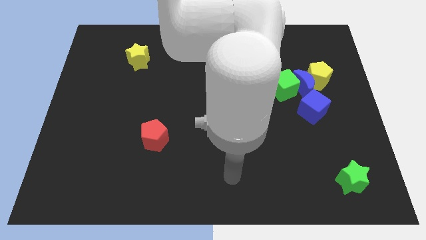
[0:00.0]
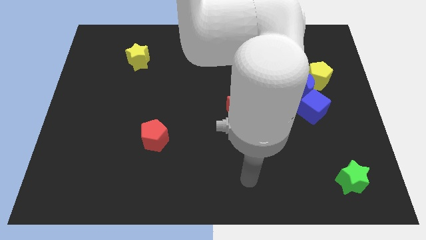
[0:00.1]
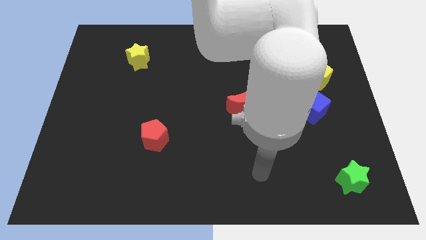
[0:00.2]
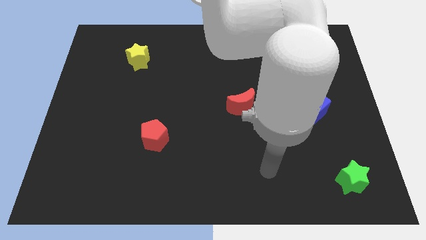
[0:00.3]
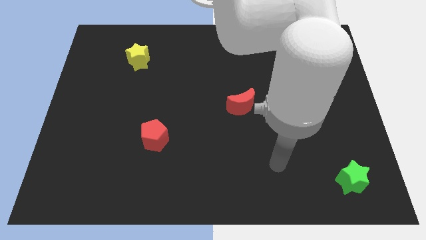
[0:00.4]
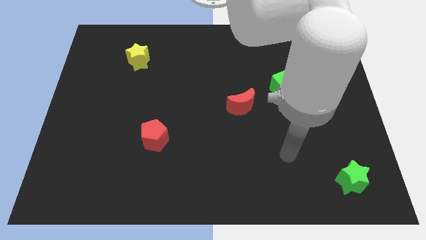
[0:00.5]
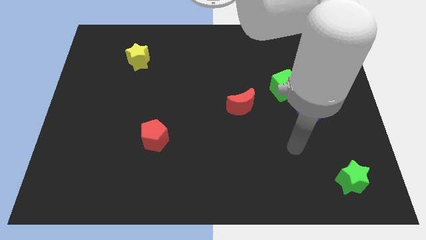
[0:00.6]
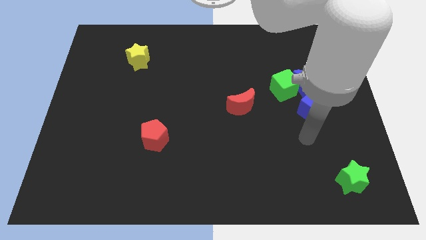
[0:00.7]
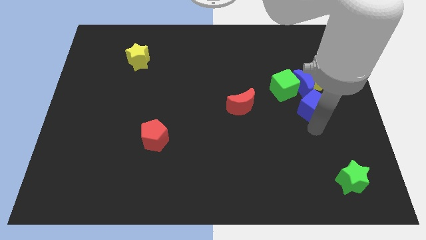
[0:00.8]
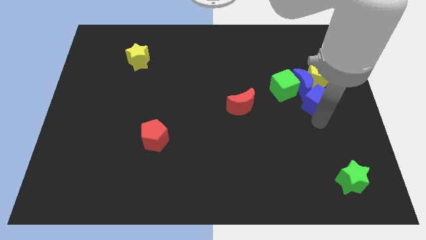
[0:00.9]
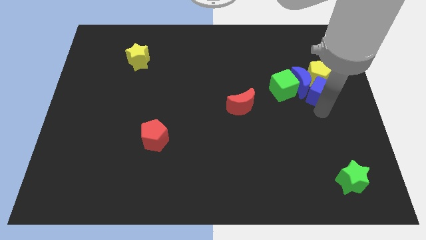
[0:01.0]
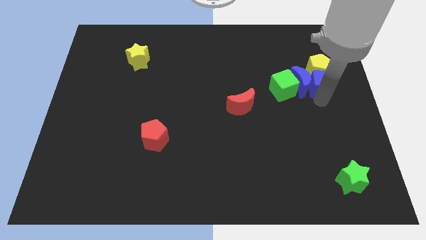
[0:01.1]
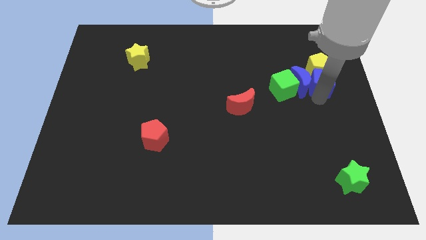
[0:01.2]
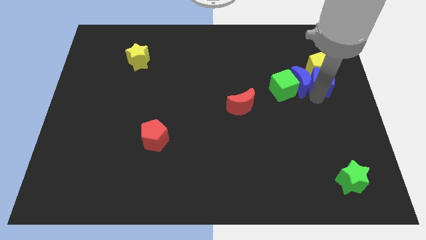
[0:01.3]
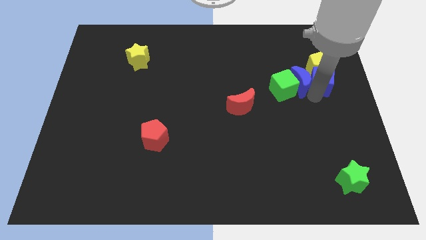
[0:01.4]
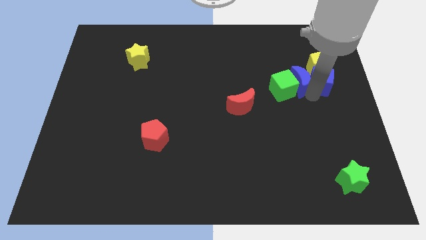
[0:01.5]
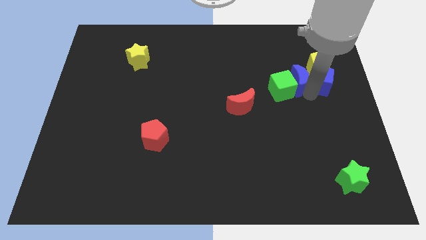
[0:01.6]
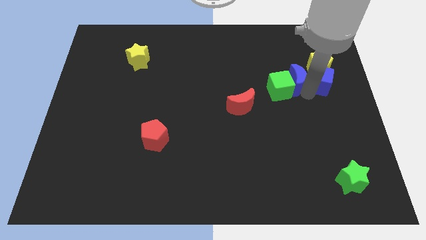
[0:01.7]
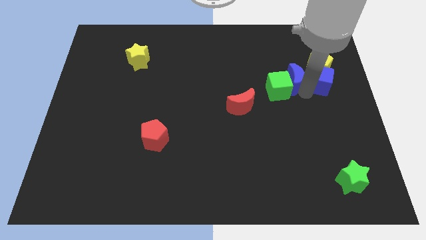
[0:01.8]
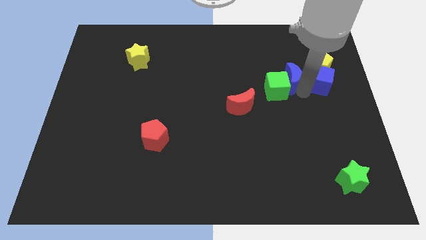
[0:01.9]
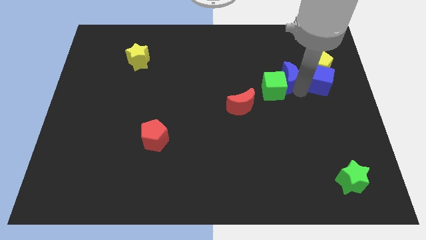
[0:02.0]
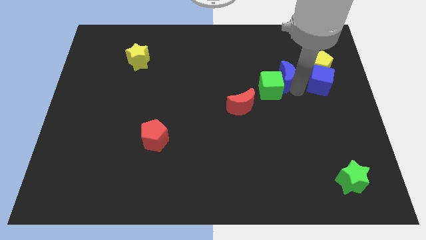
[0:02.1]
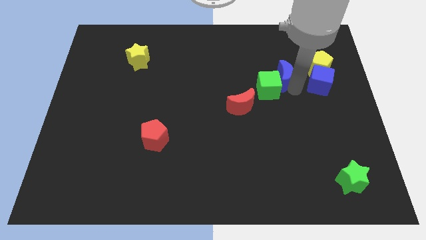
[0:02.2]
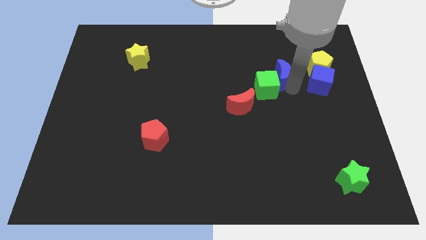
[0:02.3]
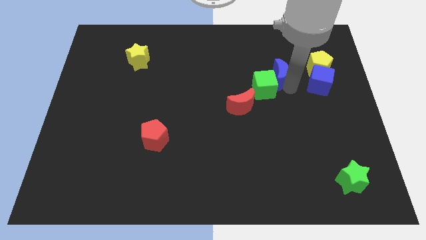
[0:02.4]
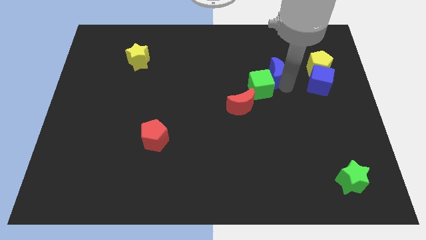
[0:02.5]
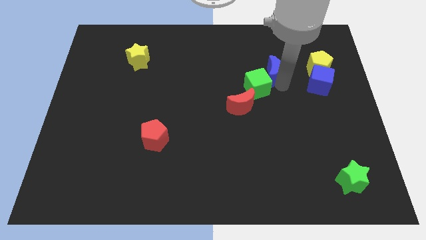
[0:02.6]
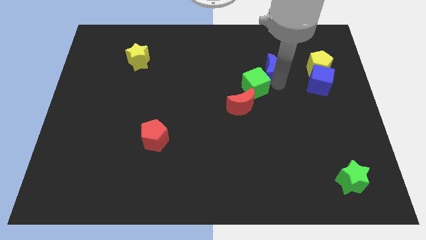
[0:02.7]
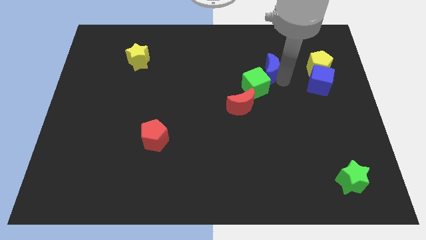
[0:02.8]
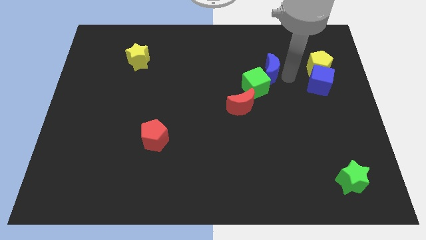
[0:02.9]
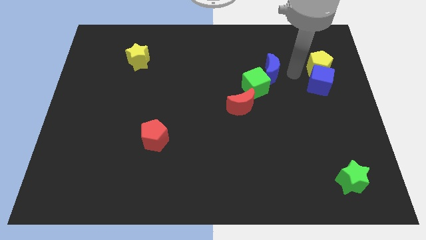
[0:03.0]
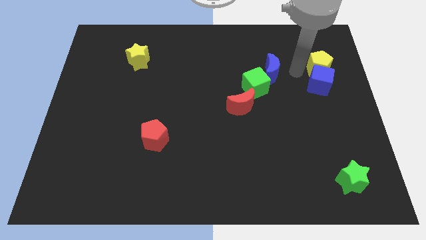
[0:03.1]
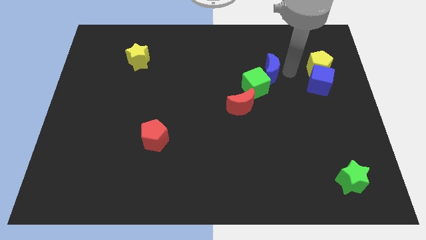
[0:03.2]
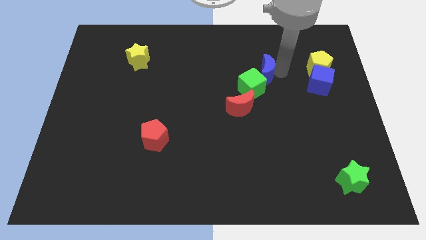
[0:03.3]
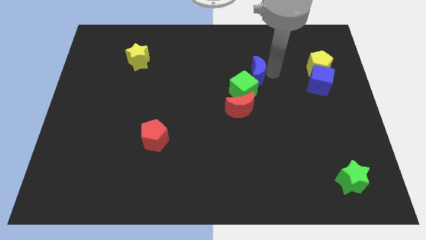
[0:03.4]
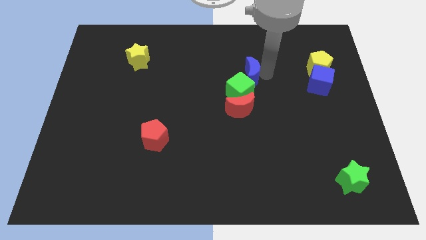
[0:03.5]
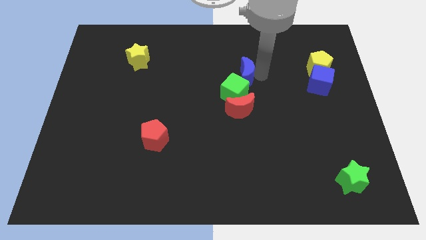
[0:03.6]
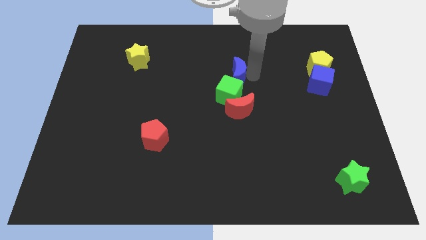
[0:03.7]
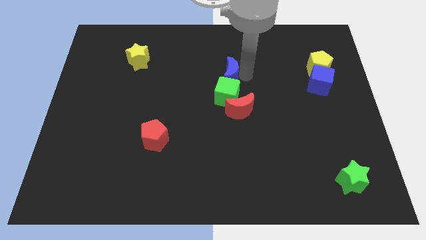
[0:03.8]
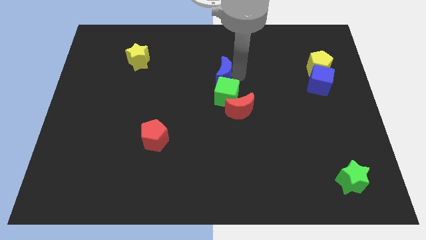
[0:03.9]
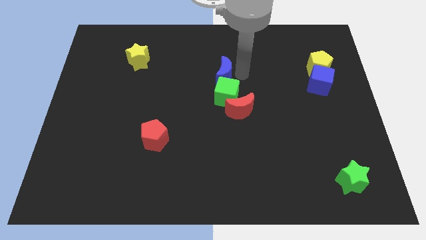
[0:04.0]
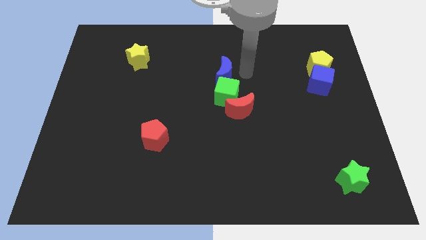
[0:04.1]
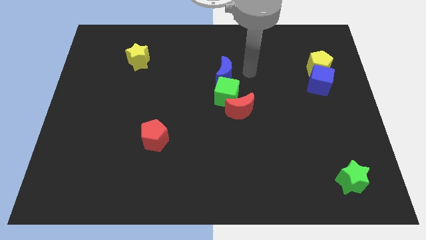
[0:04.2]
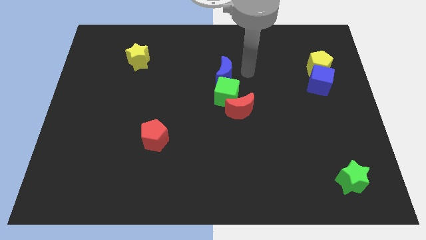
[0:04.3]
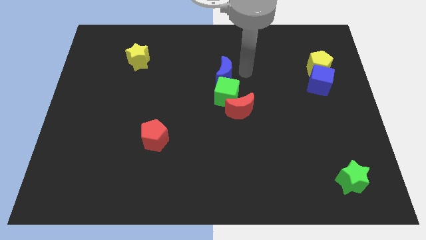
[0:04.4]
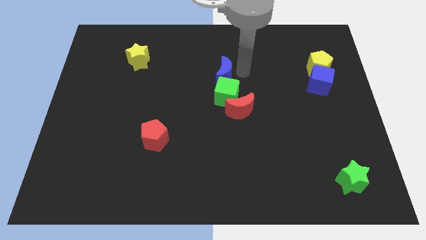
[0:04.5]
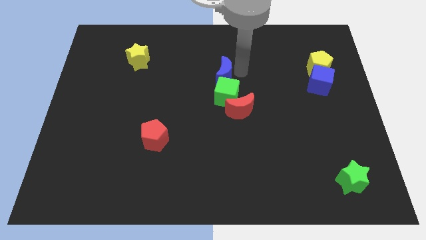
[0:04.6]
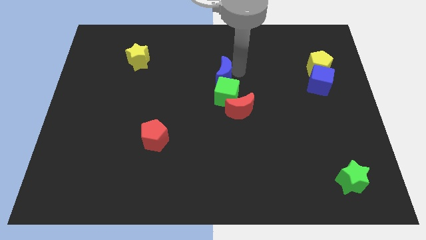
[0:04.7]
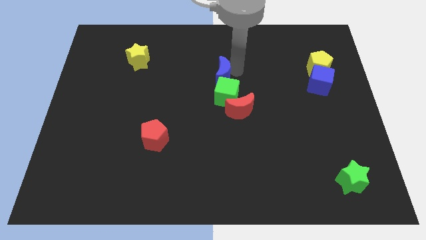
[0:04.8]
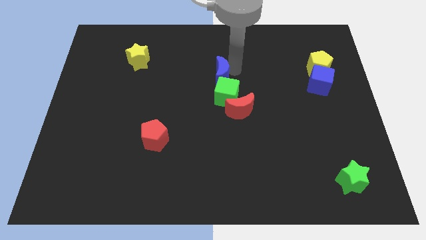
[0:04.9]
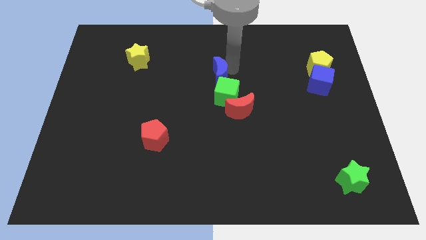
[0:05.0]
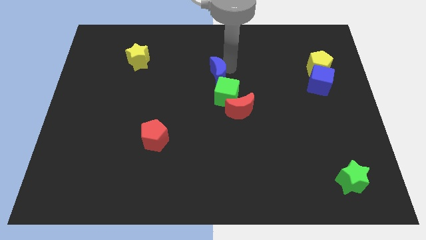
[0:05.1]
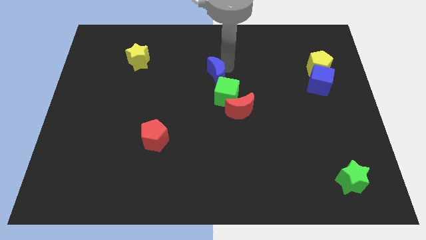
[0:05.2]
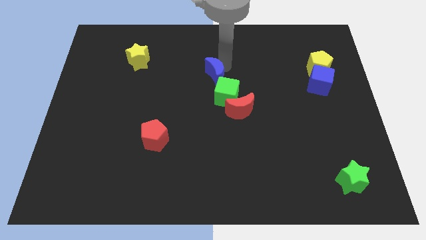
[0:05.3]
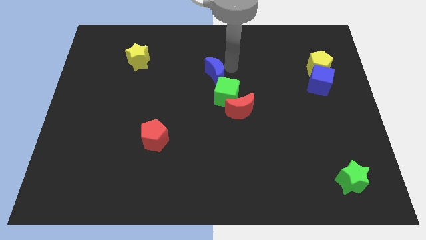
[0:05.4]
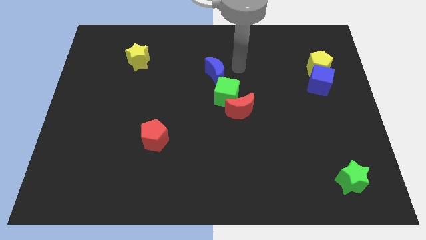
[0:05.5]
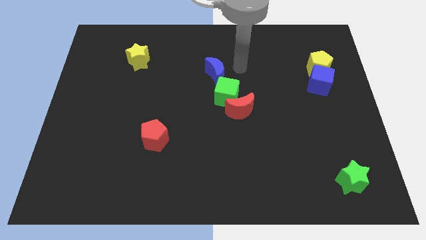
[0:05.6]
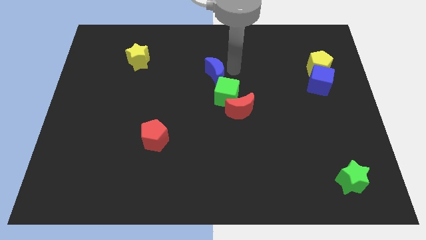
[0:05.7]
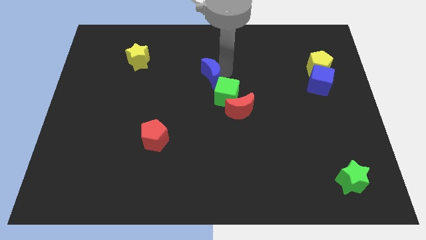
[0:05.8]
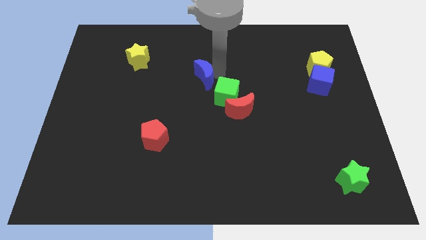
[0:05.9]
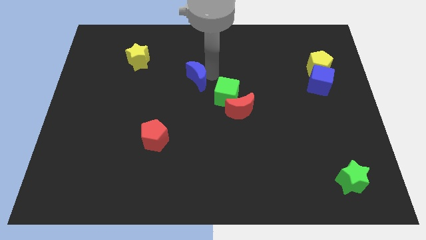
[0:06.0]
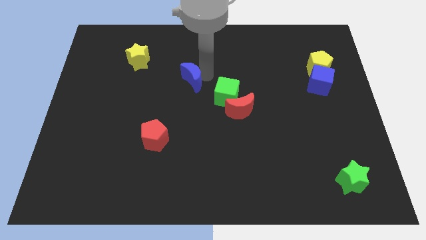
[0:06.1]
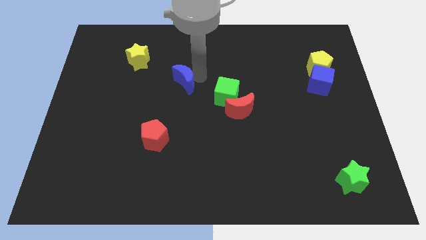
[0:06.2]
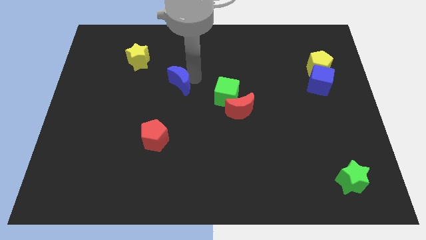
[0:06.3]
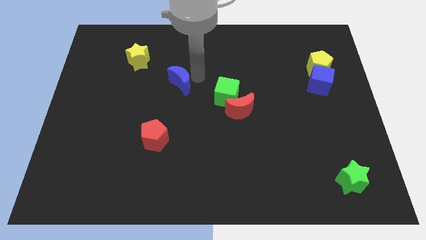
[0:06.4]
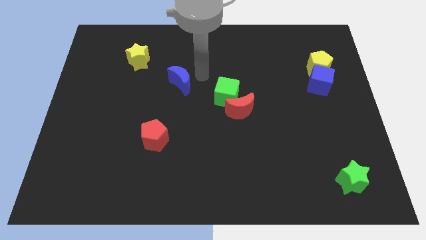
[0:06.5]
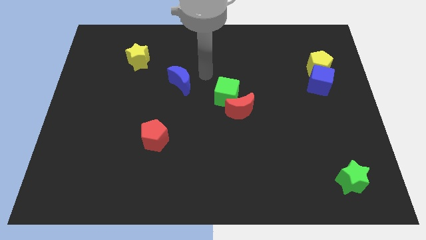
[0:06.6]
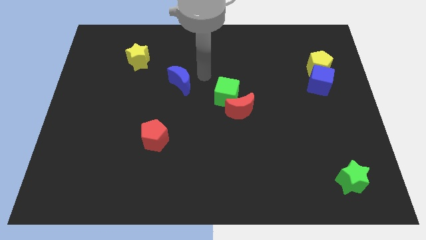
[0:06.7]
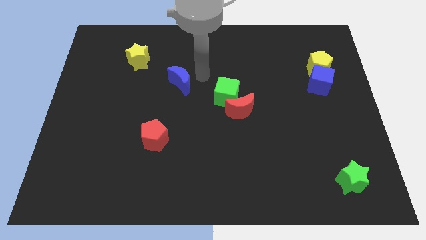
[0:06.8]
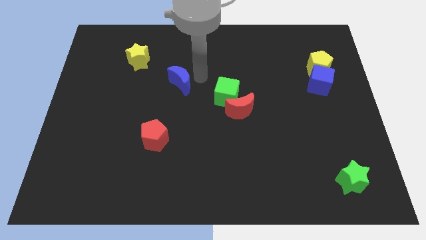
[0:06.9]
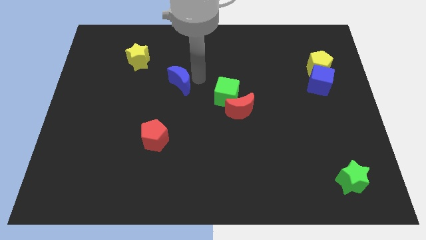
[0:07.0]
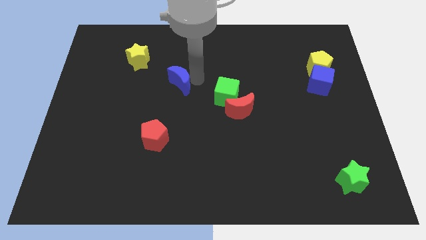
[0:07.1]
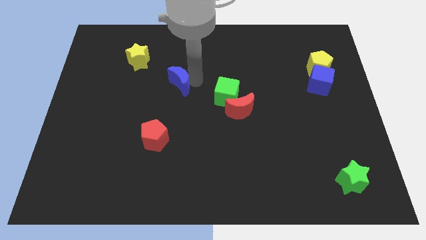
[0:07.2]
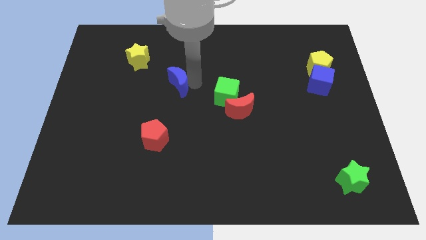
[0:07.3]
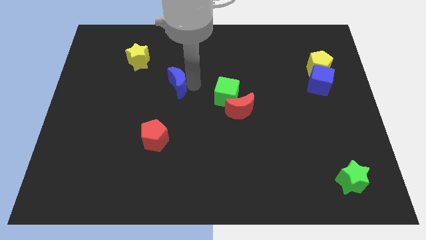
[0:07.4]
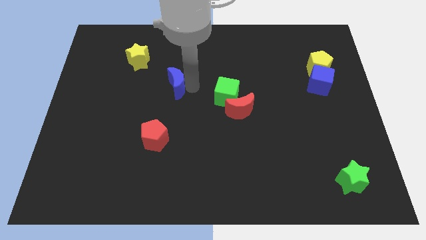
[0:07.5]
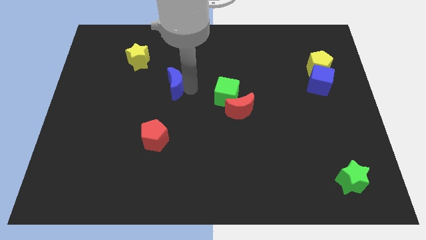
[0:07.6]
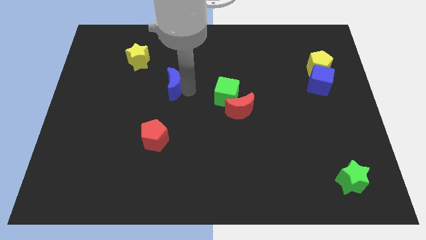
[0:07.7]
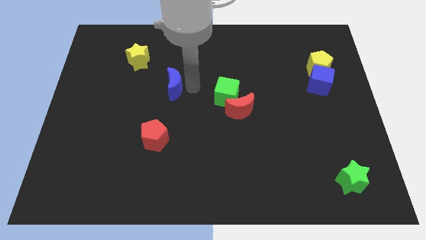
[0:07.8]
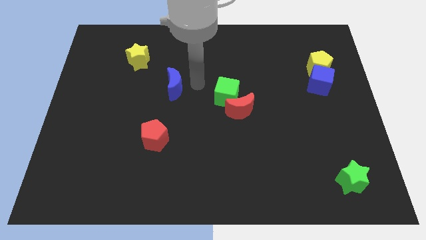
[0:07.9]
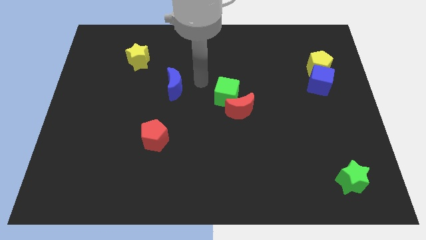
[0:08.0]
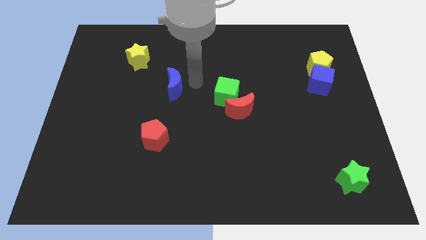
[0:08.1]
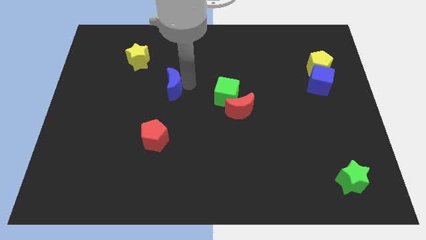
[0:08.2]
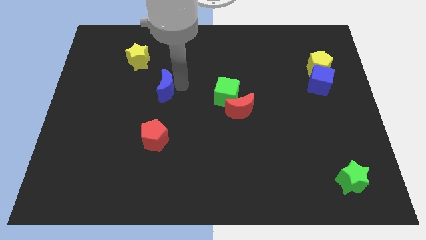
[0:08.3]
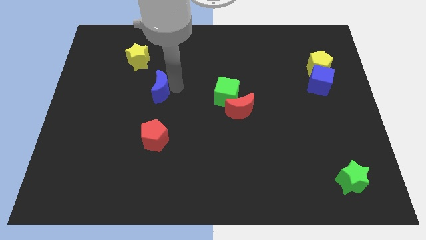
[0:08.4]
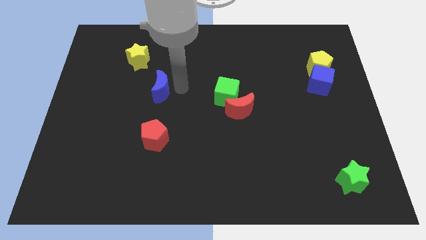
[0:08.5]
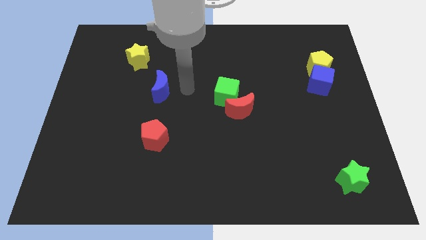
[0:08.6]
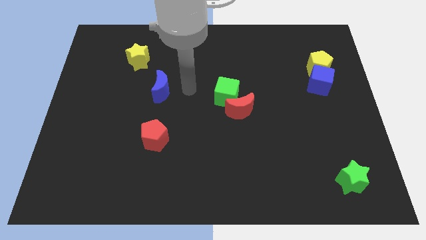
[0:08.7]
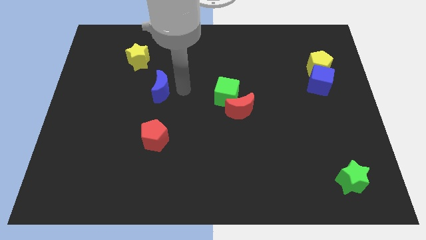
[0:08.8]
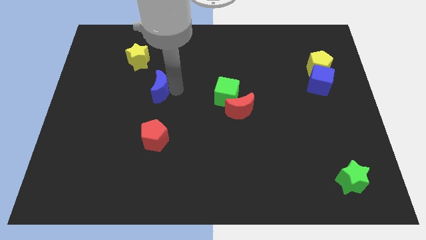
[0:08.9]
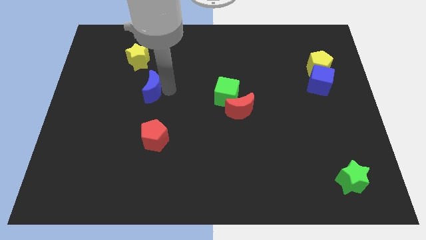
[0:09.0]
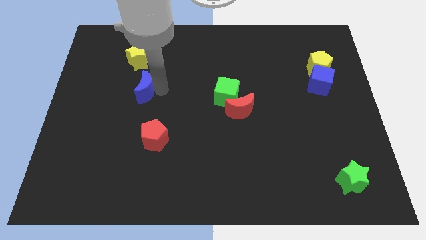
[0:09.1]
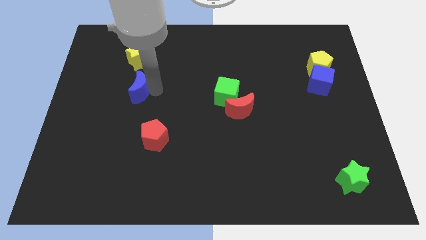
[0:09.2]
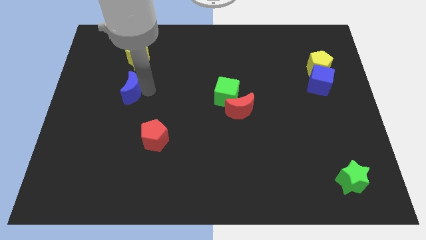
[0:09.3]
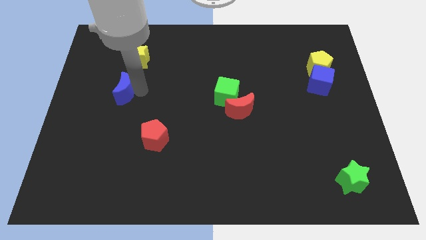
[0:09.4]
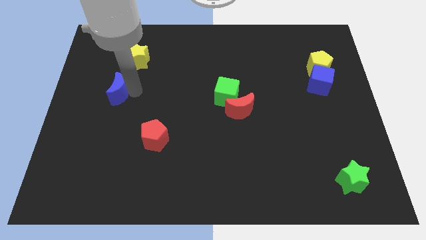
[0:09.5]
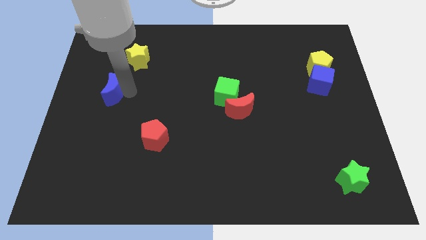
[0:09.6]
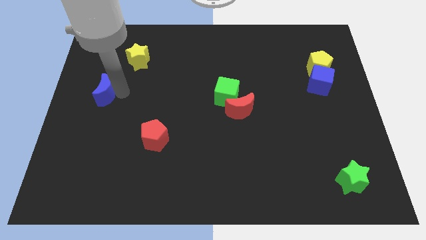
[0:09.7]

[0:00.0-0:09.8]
put the blue moon to the center left
